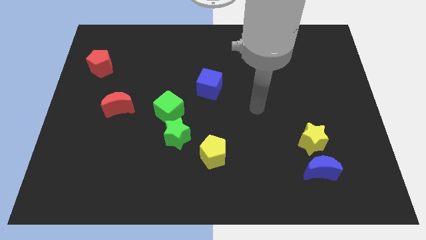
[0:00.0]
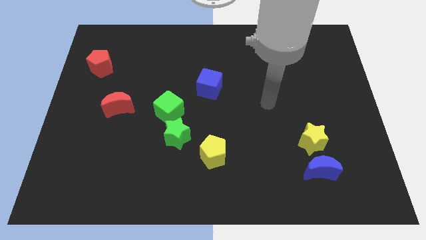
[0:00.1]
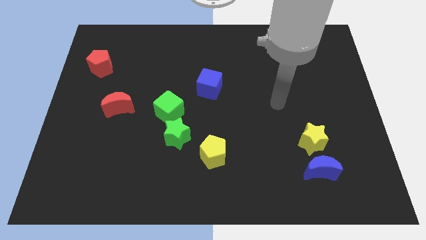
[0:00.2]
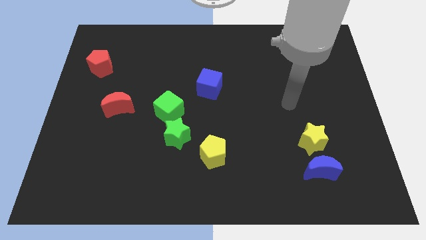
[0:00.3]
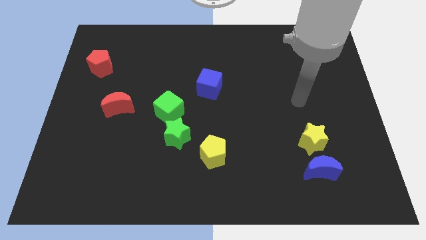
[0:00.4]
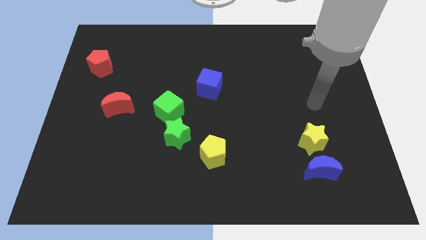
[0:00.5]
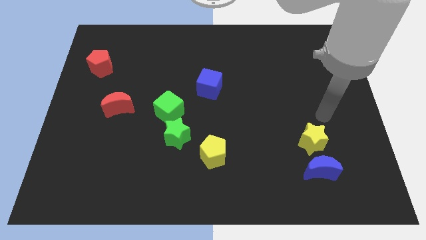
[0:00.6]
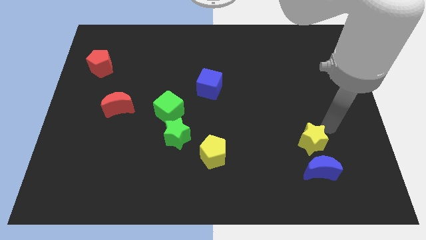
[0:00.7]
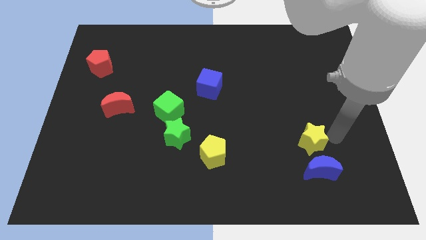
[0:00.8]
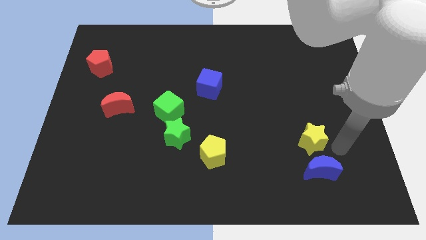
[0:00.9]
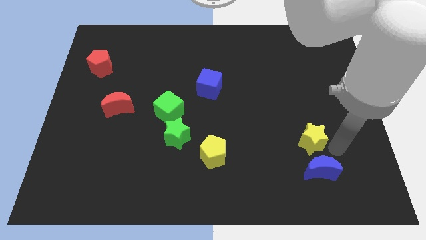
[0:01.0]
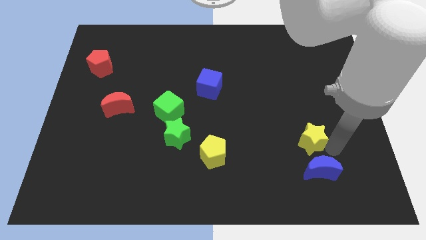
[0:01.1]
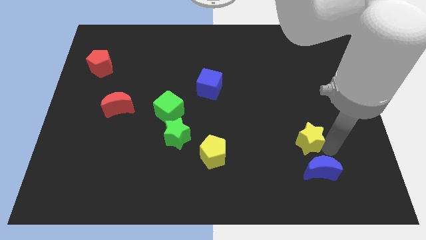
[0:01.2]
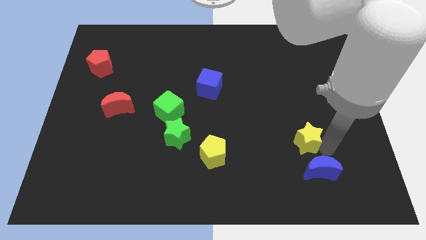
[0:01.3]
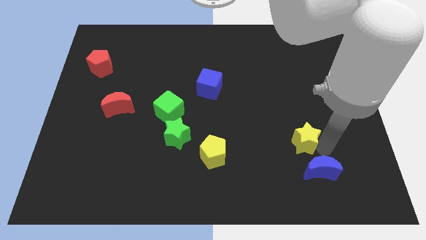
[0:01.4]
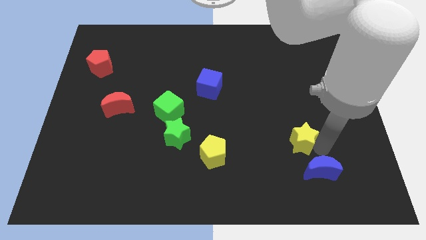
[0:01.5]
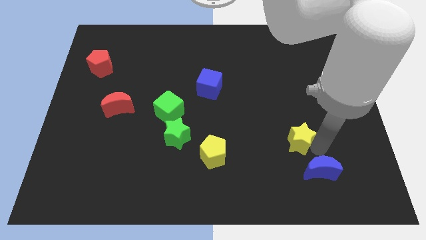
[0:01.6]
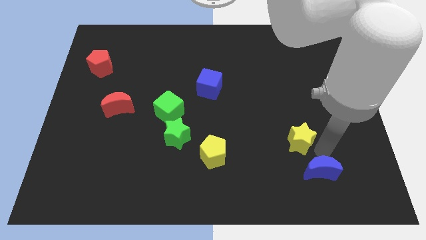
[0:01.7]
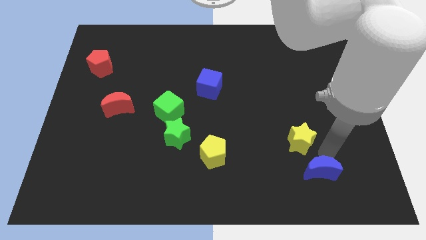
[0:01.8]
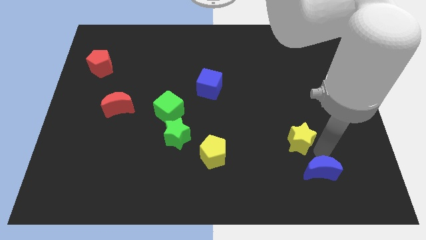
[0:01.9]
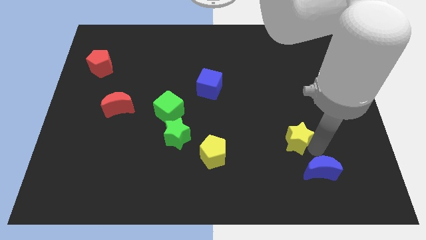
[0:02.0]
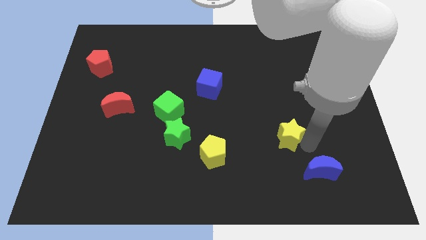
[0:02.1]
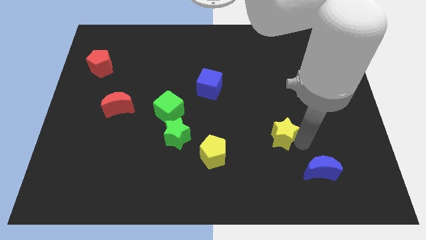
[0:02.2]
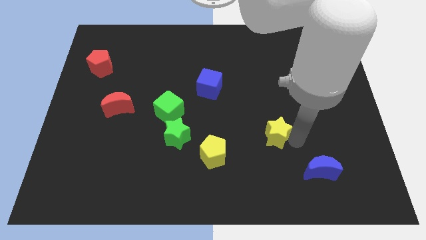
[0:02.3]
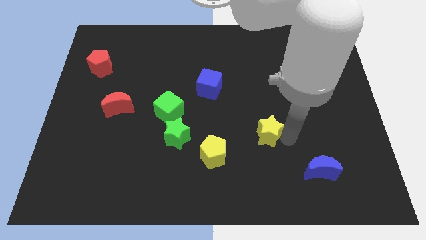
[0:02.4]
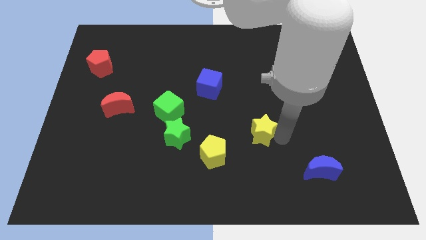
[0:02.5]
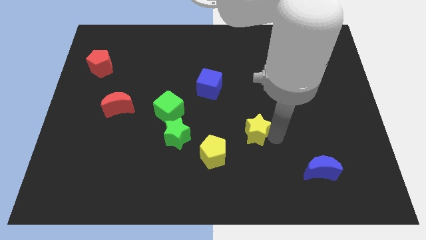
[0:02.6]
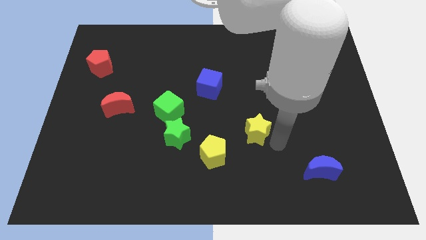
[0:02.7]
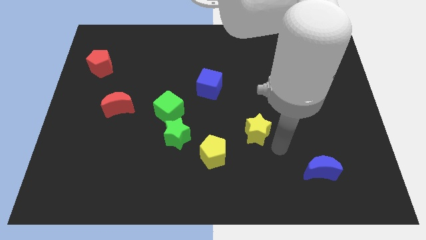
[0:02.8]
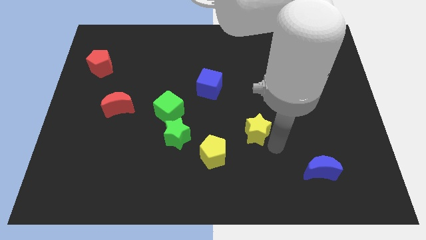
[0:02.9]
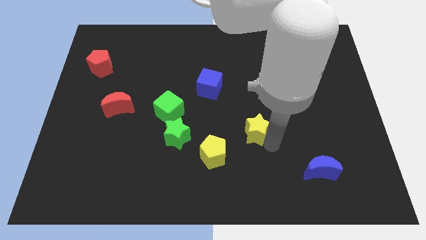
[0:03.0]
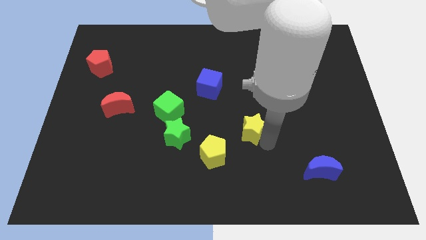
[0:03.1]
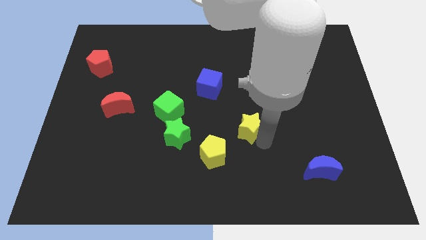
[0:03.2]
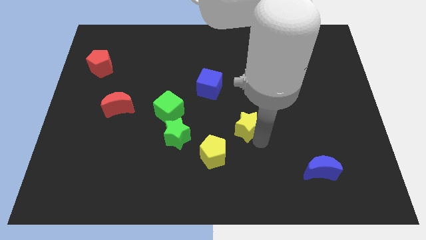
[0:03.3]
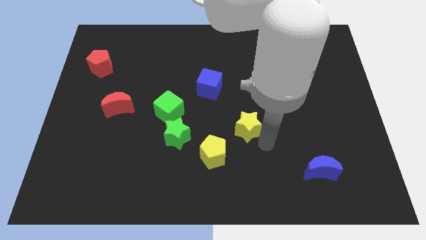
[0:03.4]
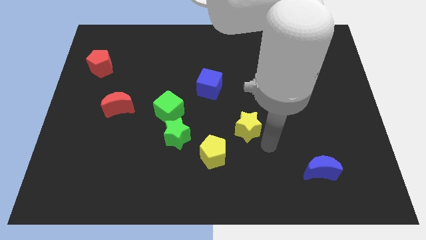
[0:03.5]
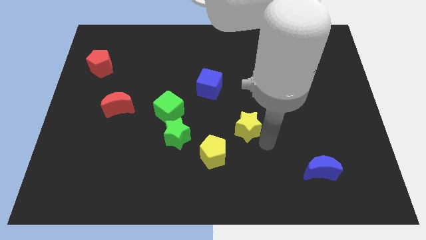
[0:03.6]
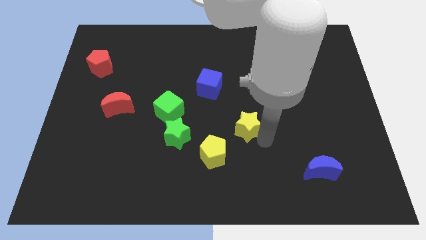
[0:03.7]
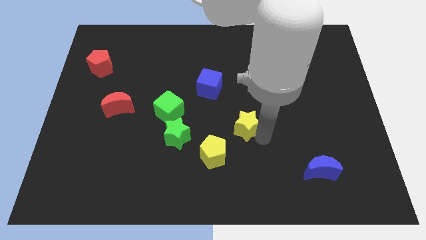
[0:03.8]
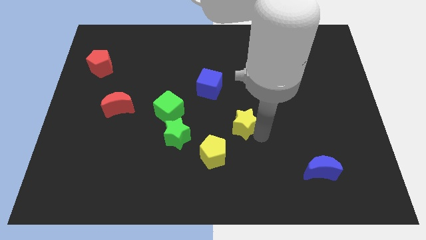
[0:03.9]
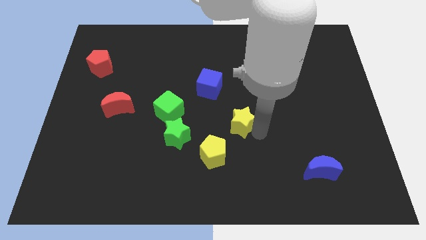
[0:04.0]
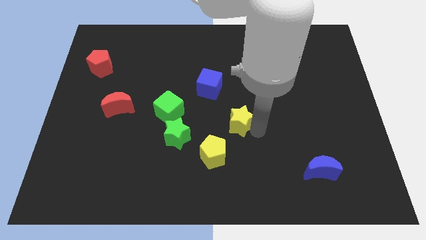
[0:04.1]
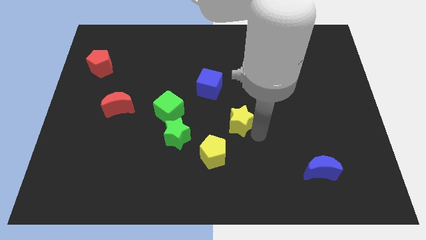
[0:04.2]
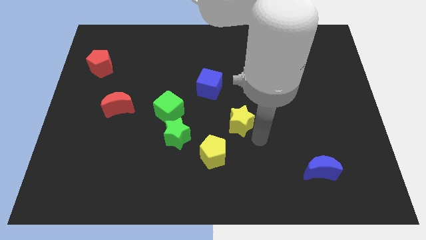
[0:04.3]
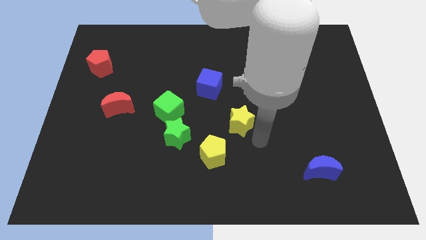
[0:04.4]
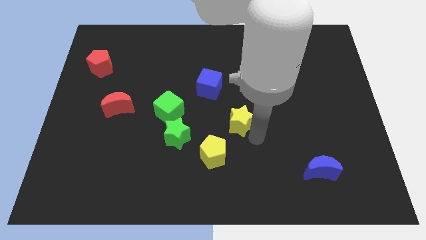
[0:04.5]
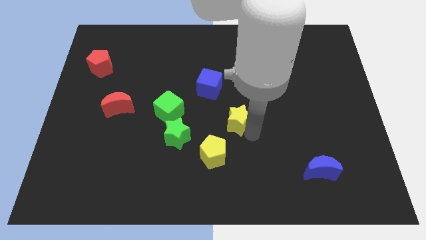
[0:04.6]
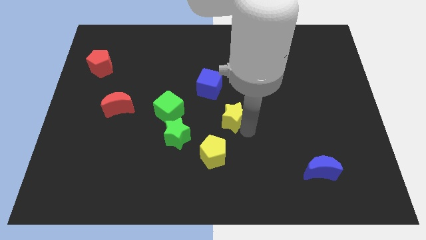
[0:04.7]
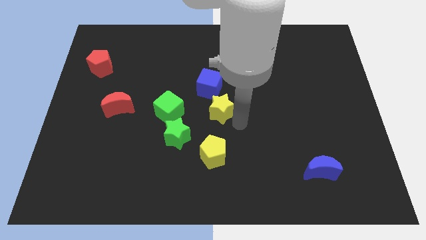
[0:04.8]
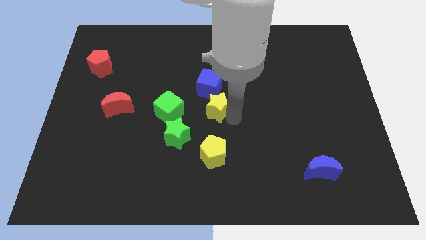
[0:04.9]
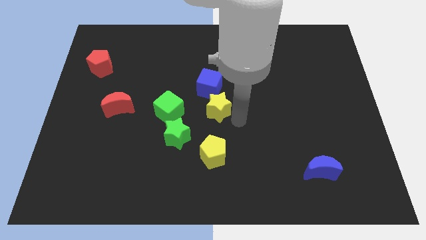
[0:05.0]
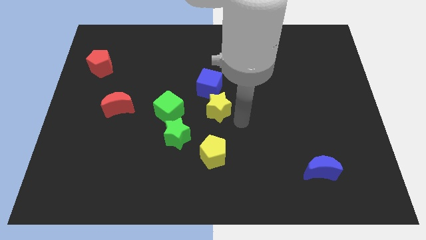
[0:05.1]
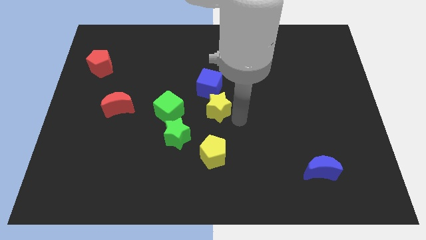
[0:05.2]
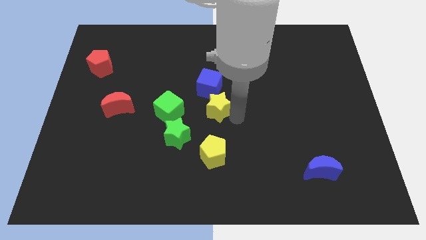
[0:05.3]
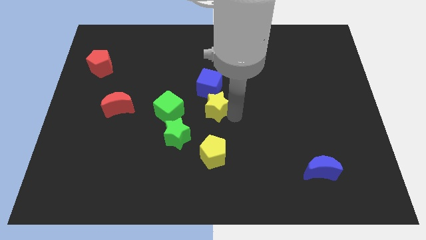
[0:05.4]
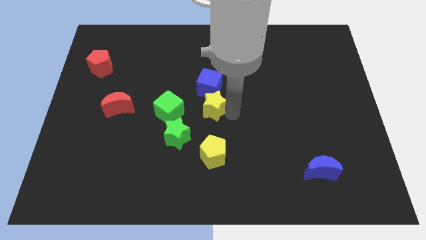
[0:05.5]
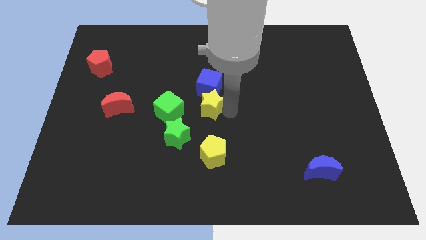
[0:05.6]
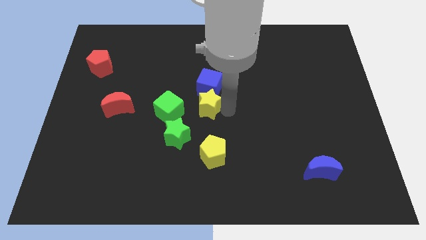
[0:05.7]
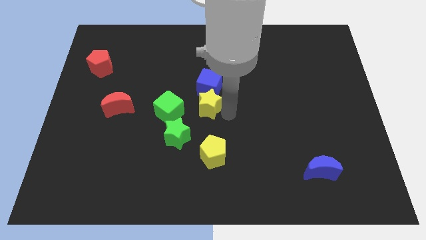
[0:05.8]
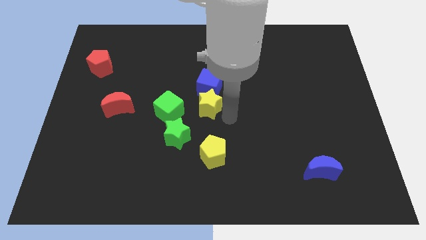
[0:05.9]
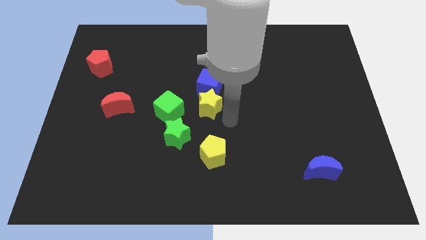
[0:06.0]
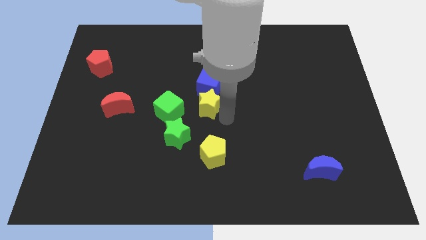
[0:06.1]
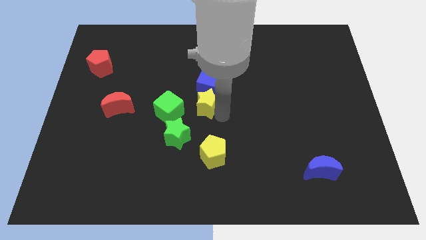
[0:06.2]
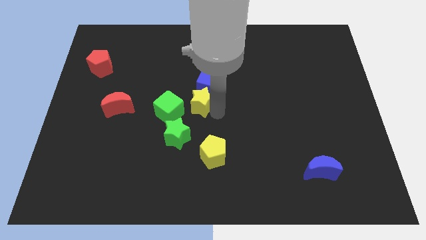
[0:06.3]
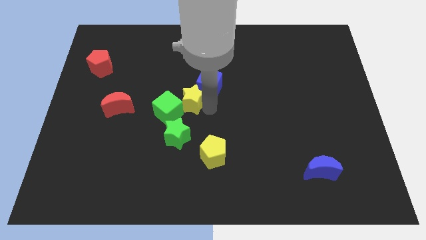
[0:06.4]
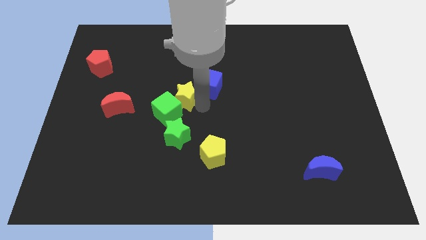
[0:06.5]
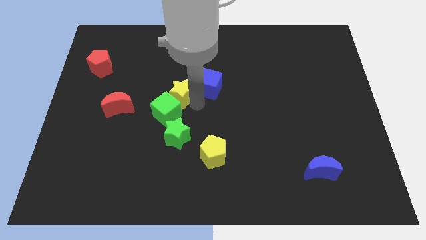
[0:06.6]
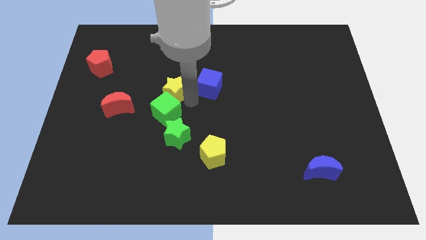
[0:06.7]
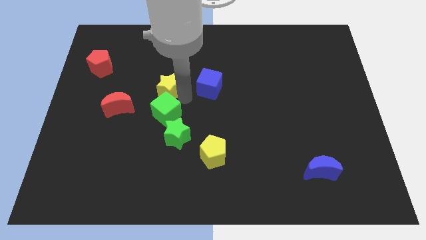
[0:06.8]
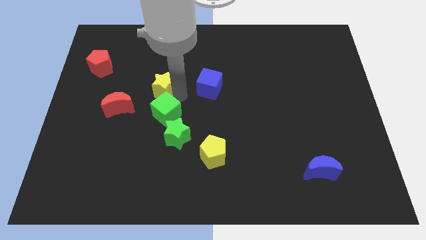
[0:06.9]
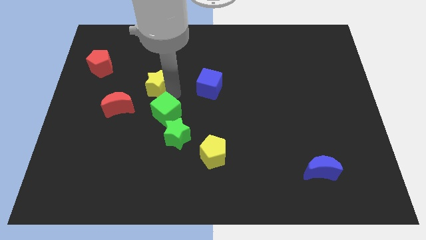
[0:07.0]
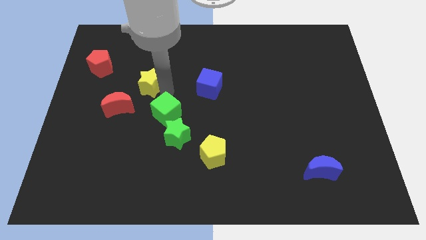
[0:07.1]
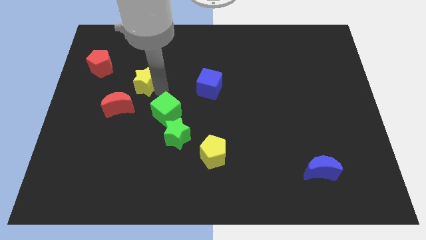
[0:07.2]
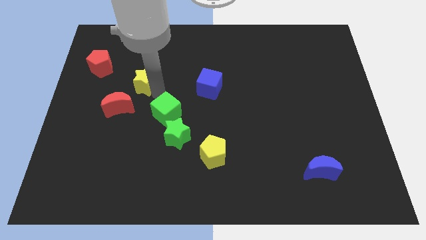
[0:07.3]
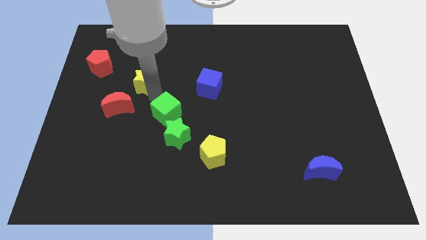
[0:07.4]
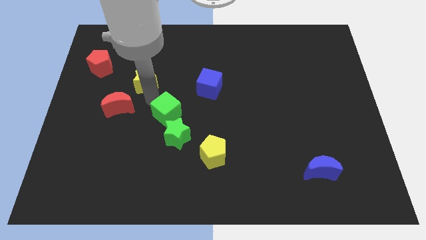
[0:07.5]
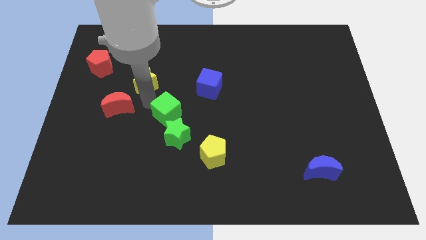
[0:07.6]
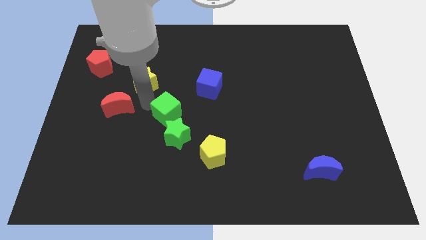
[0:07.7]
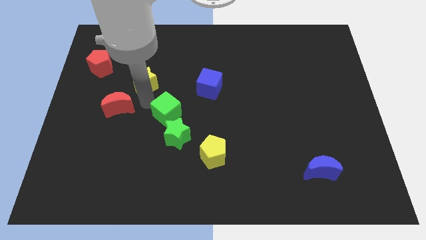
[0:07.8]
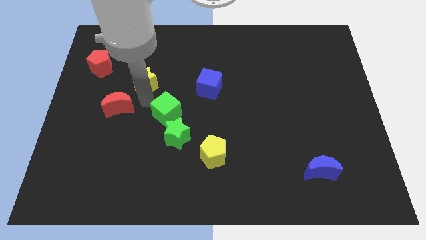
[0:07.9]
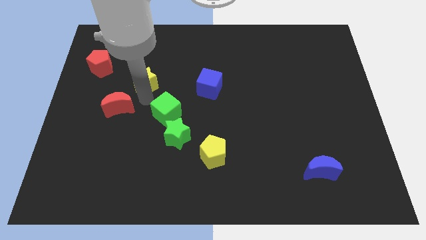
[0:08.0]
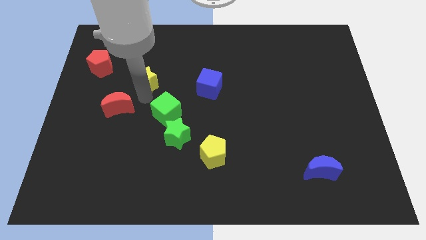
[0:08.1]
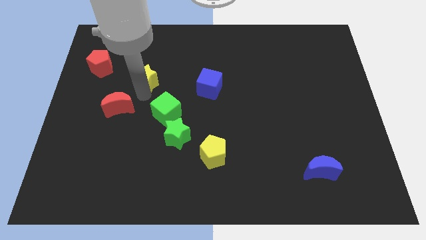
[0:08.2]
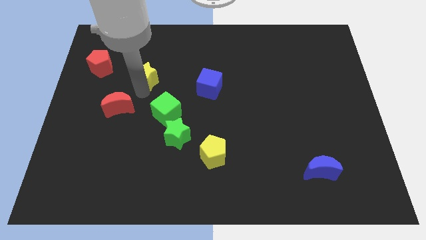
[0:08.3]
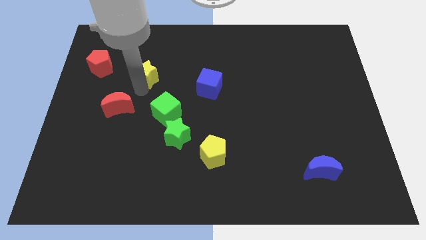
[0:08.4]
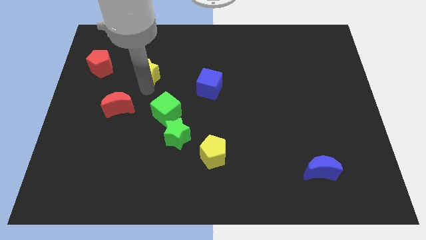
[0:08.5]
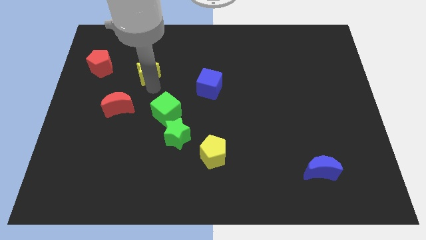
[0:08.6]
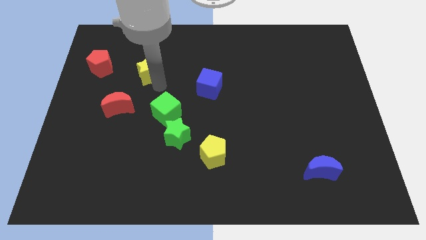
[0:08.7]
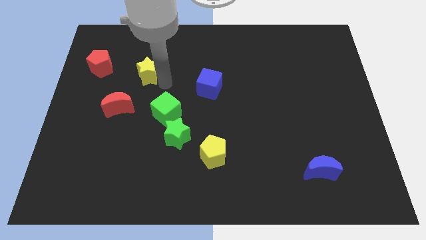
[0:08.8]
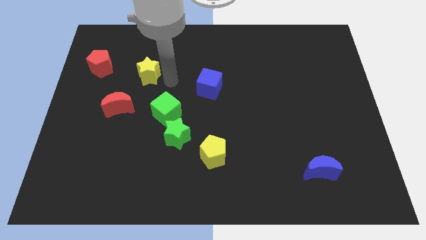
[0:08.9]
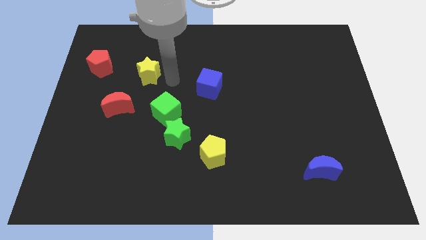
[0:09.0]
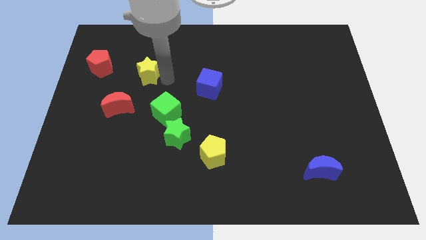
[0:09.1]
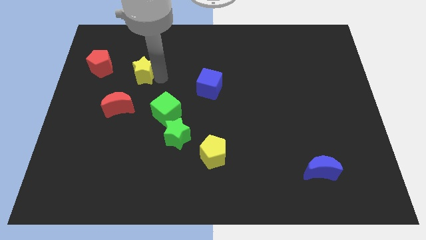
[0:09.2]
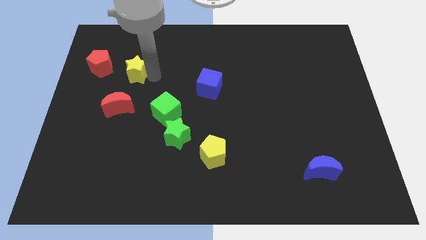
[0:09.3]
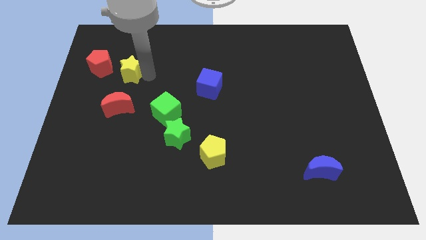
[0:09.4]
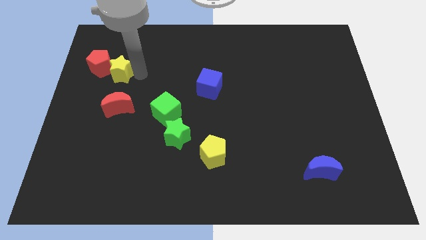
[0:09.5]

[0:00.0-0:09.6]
put the yellow star close to the red pentagon
